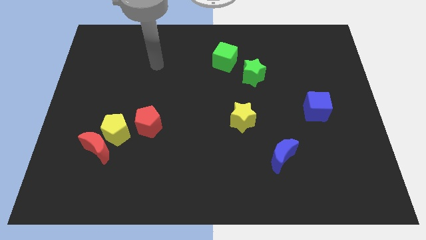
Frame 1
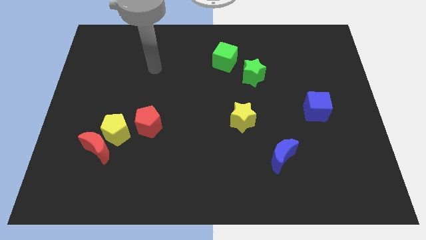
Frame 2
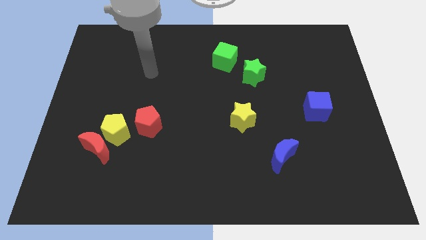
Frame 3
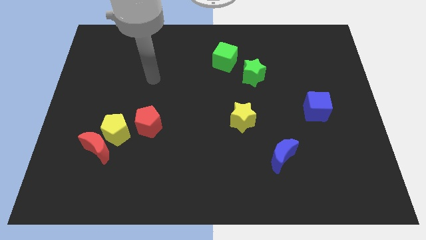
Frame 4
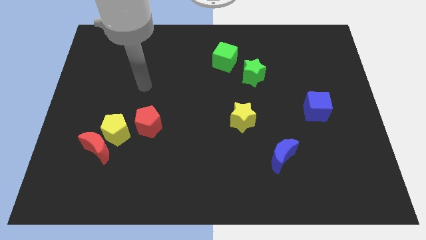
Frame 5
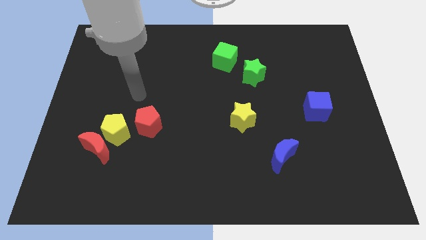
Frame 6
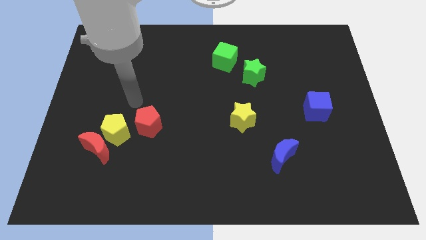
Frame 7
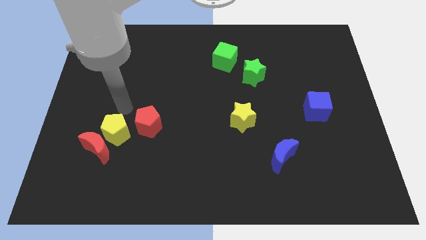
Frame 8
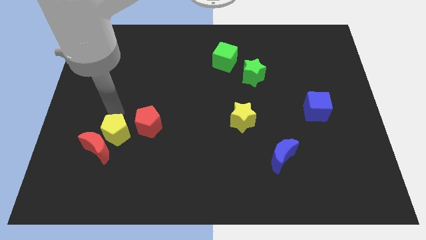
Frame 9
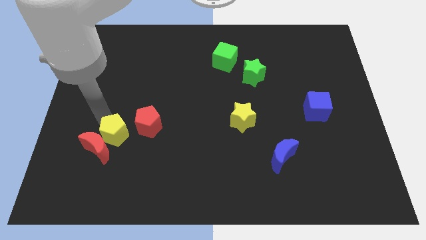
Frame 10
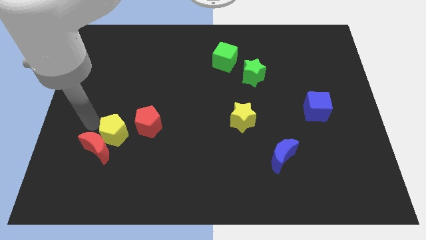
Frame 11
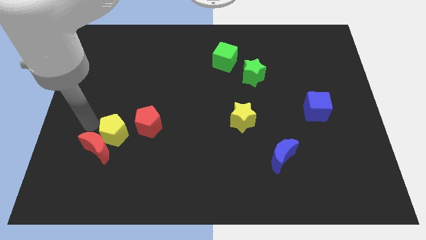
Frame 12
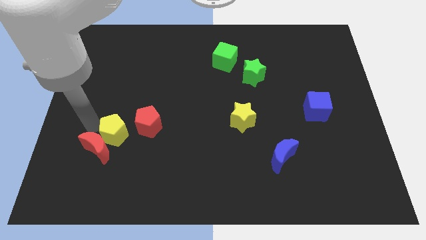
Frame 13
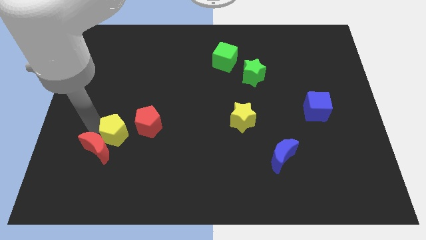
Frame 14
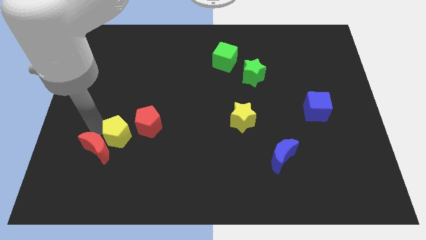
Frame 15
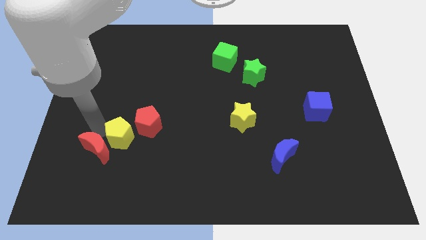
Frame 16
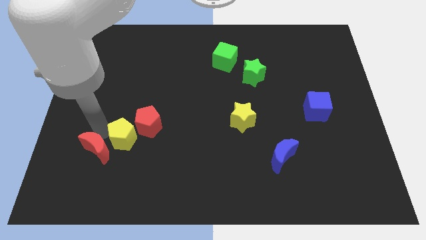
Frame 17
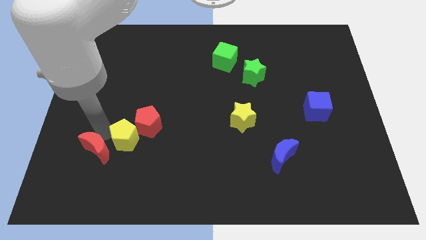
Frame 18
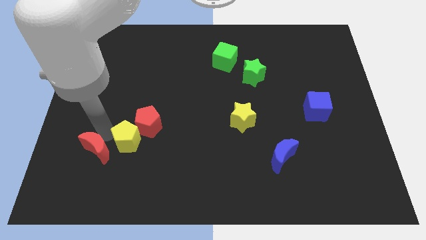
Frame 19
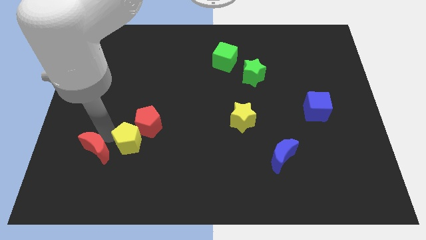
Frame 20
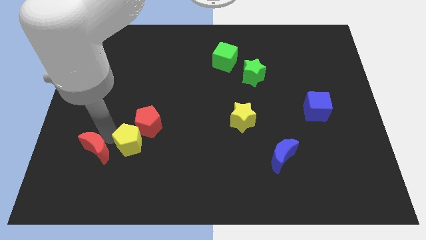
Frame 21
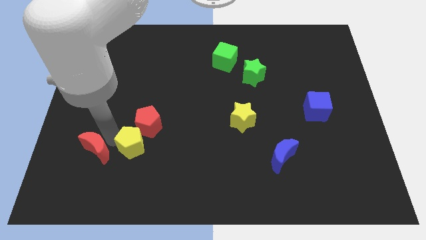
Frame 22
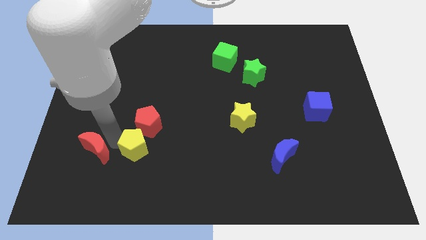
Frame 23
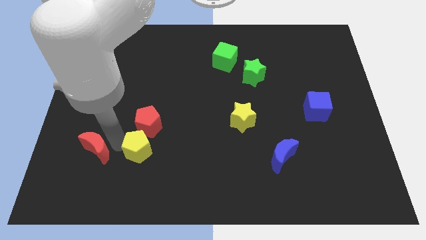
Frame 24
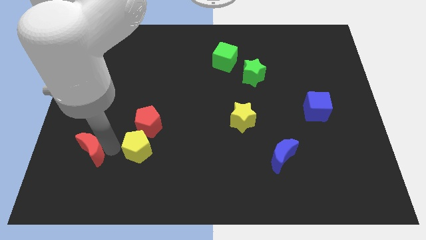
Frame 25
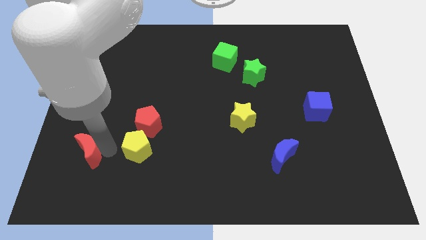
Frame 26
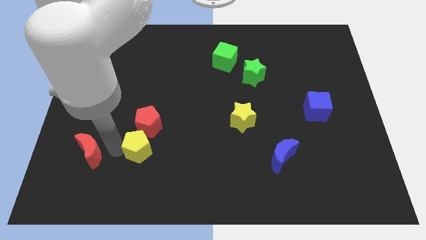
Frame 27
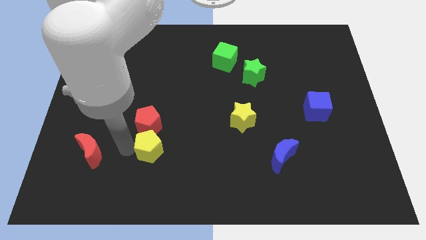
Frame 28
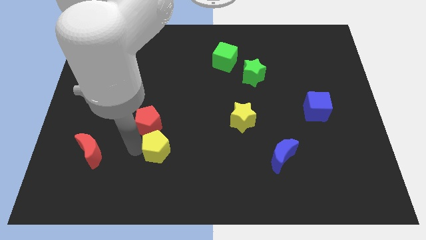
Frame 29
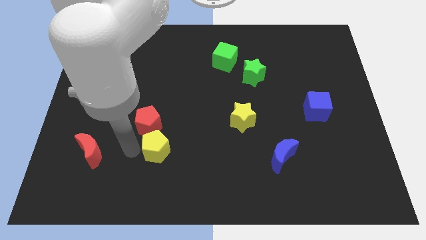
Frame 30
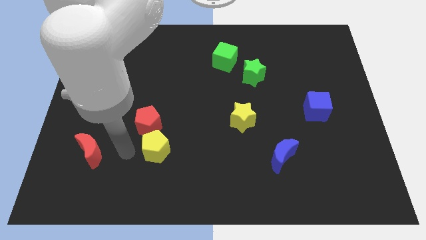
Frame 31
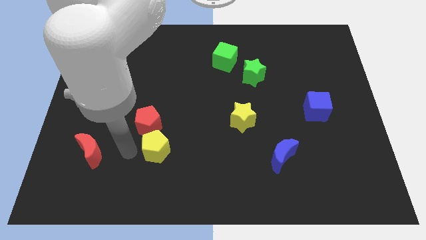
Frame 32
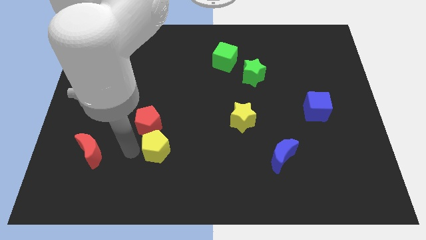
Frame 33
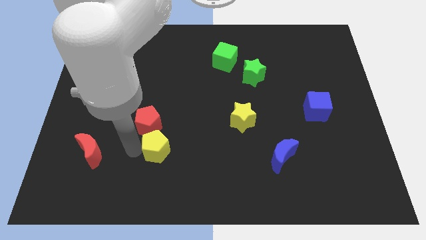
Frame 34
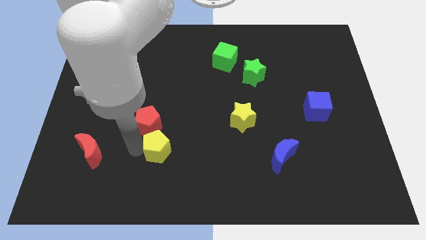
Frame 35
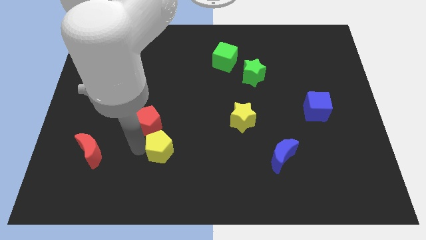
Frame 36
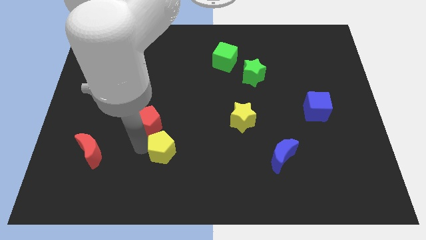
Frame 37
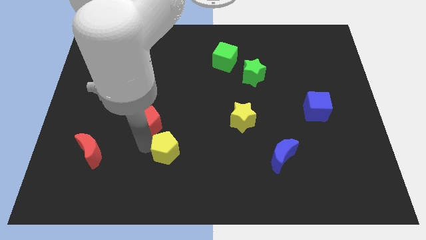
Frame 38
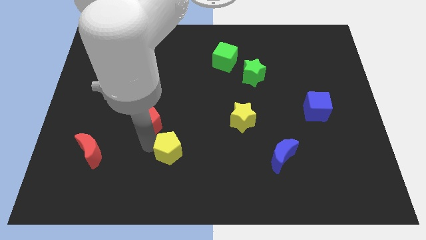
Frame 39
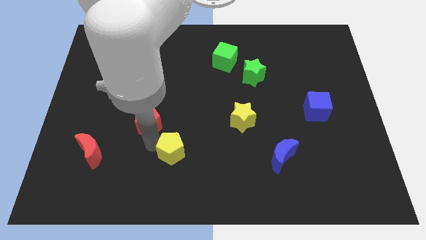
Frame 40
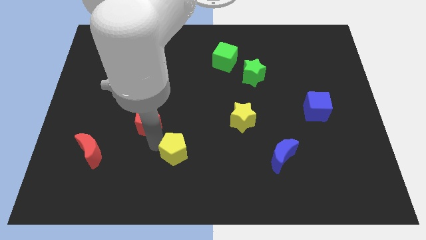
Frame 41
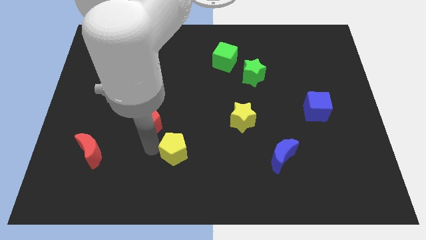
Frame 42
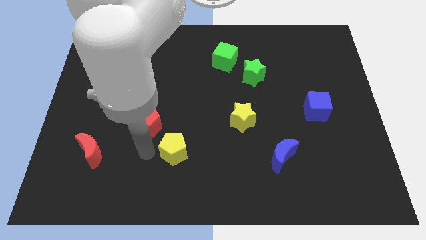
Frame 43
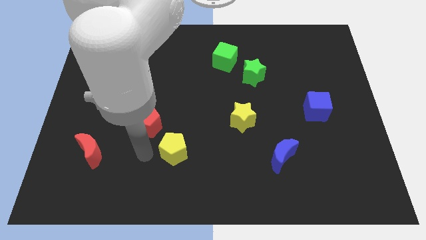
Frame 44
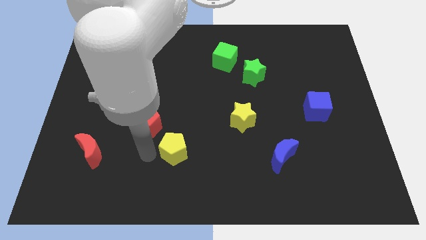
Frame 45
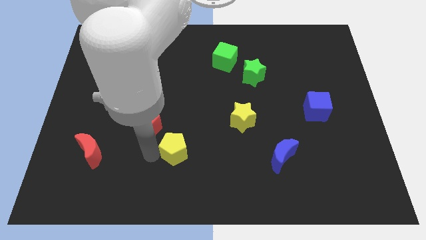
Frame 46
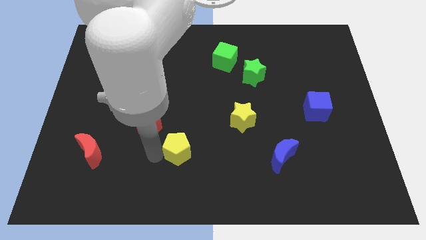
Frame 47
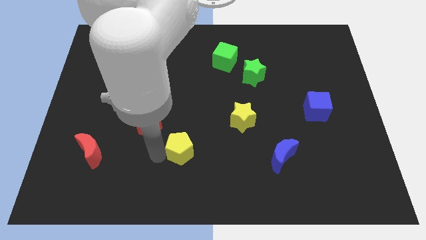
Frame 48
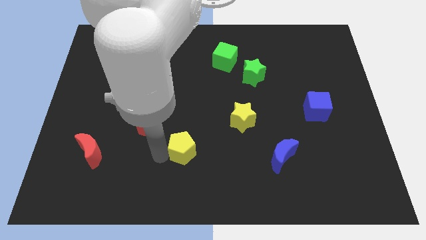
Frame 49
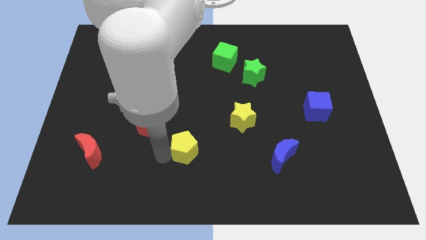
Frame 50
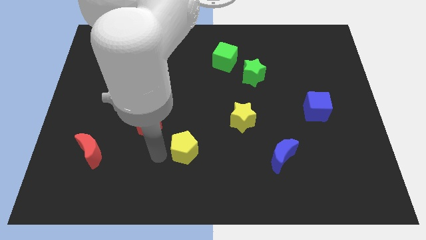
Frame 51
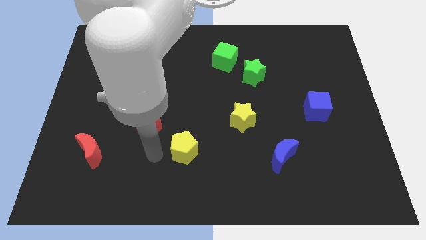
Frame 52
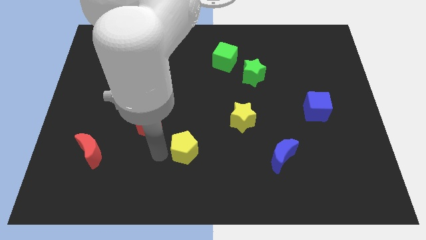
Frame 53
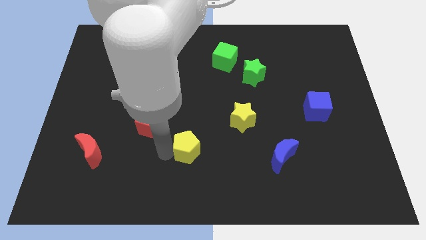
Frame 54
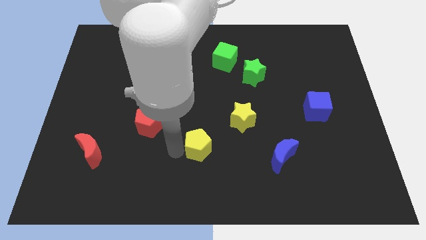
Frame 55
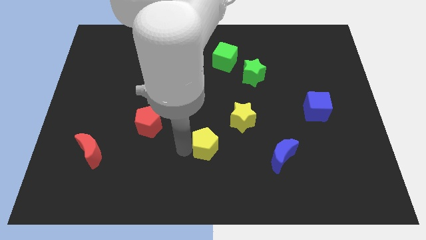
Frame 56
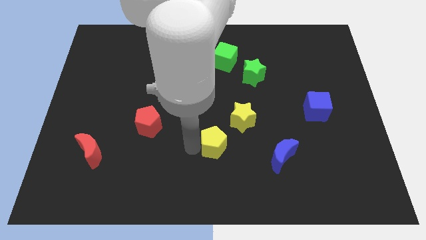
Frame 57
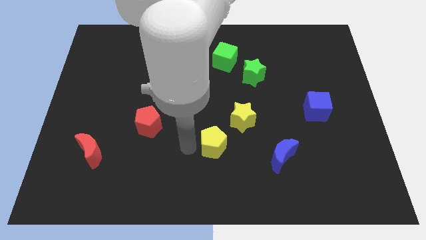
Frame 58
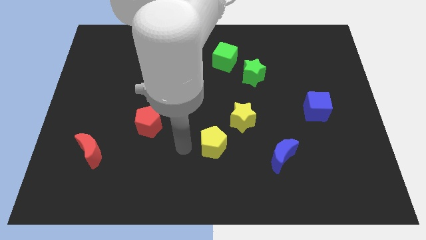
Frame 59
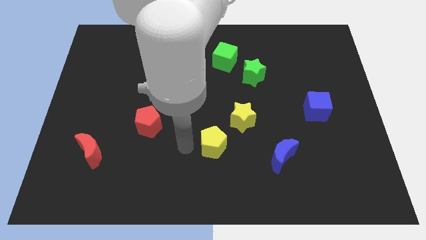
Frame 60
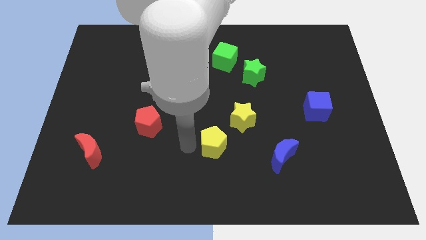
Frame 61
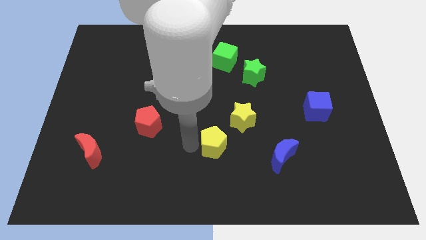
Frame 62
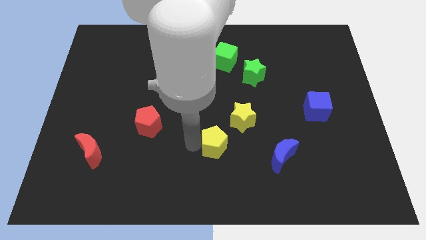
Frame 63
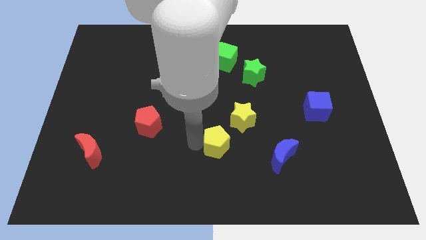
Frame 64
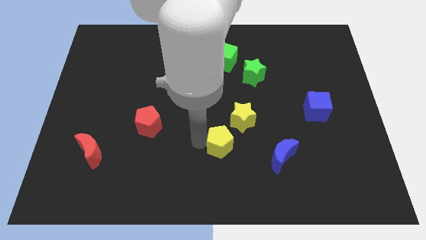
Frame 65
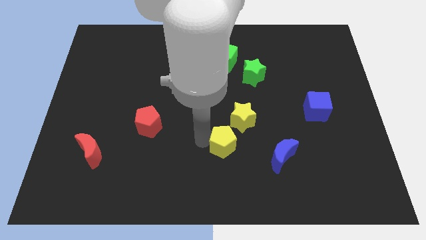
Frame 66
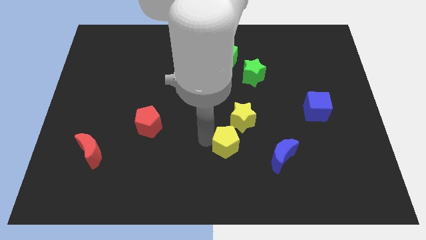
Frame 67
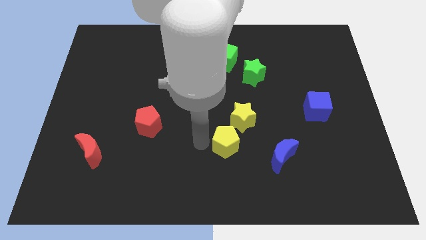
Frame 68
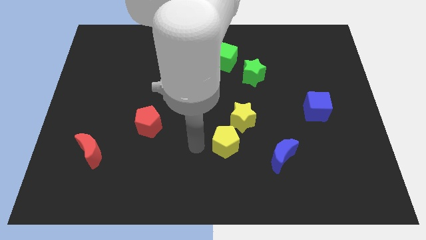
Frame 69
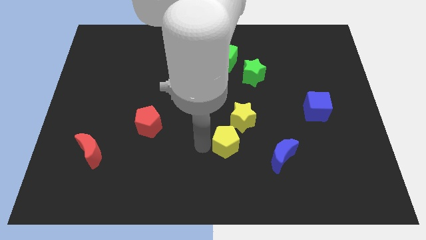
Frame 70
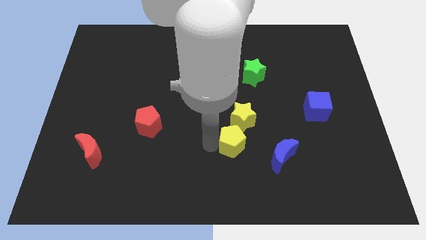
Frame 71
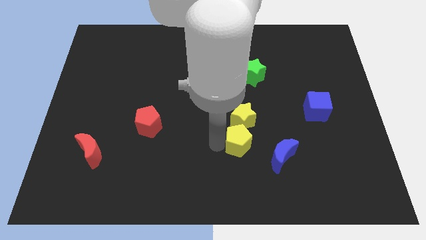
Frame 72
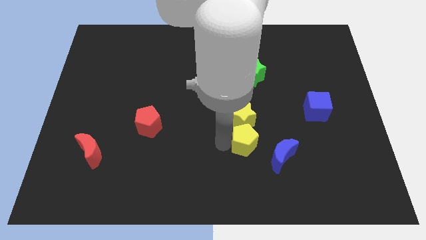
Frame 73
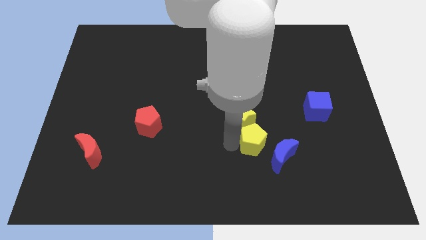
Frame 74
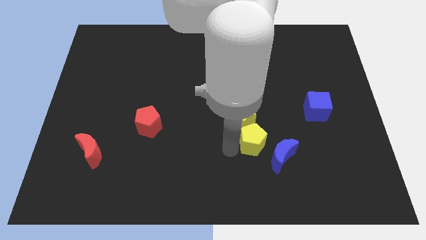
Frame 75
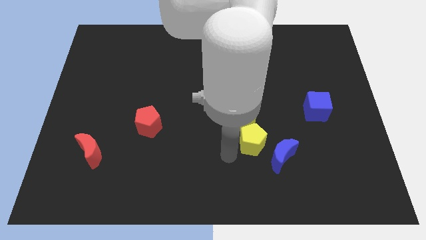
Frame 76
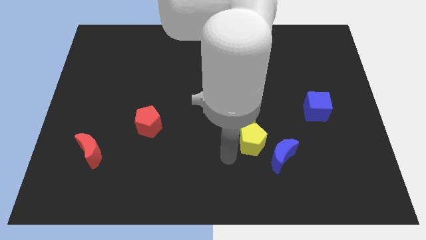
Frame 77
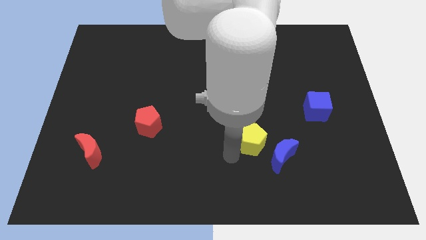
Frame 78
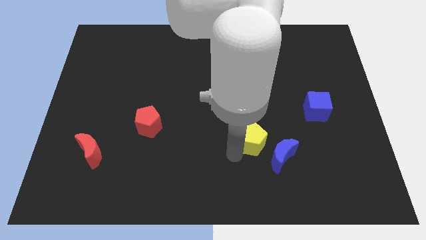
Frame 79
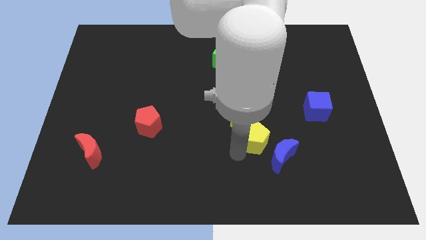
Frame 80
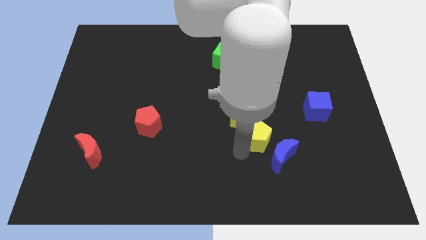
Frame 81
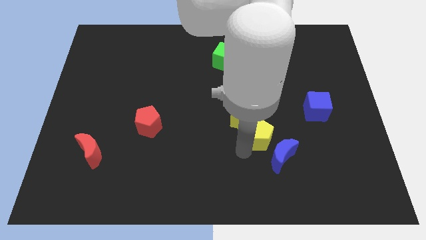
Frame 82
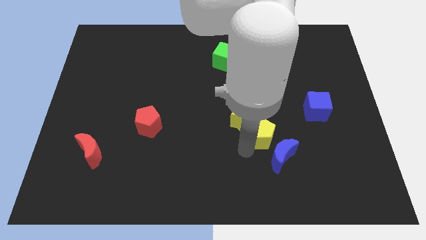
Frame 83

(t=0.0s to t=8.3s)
move the yellow pentagon to the right of the yellow star
